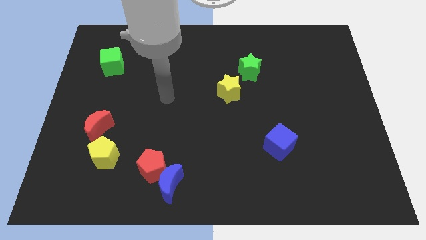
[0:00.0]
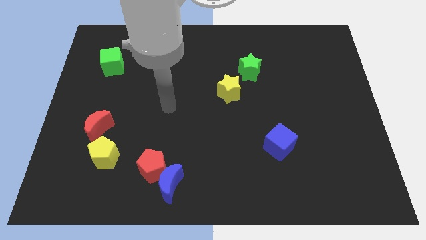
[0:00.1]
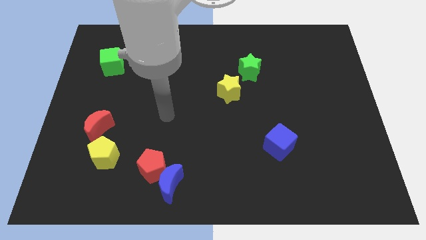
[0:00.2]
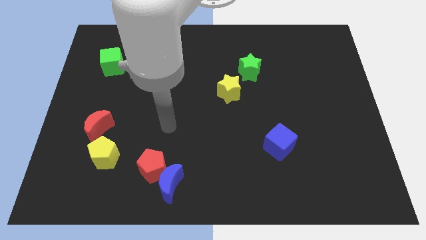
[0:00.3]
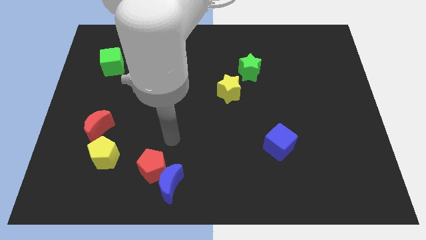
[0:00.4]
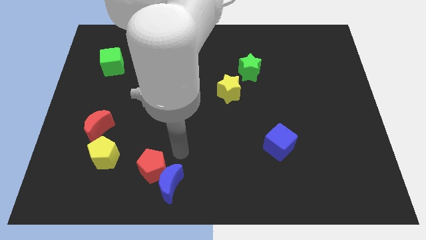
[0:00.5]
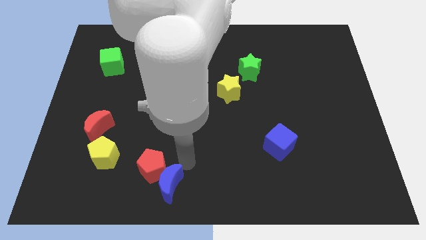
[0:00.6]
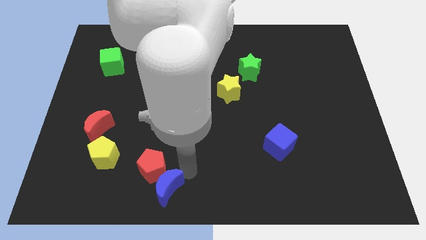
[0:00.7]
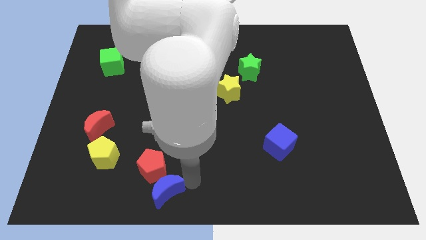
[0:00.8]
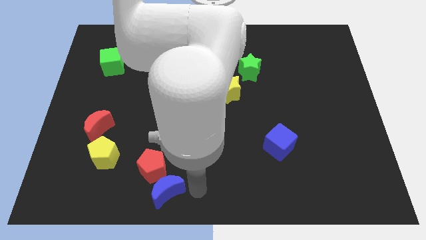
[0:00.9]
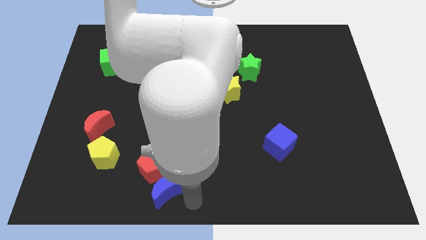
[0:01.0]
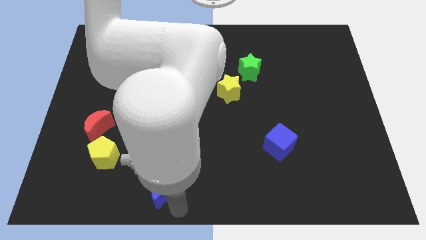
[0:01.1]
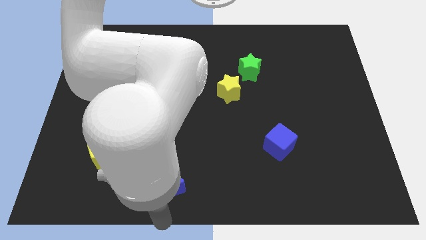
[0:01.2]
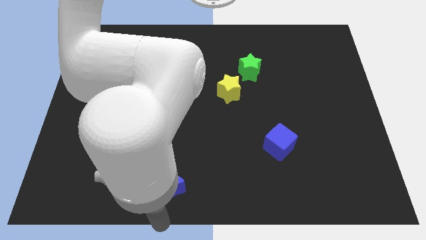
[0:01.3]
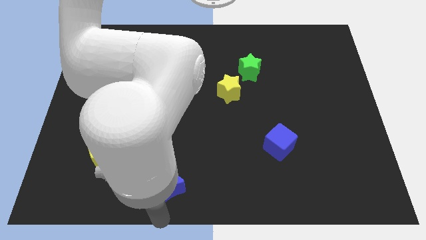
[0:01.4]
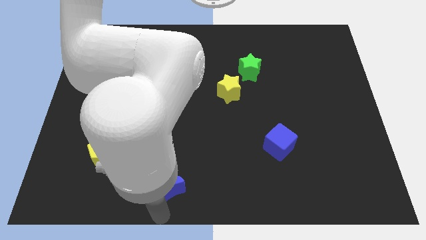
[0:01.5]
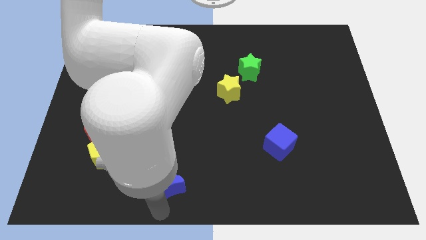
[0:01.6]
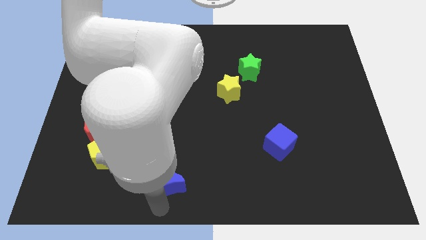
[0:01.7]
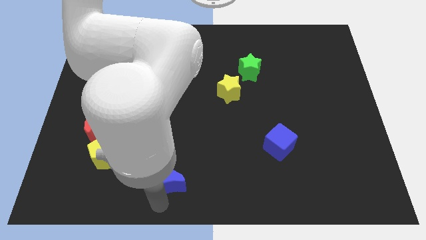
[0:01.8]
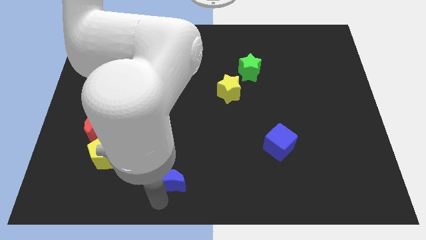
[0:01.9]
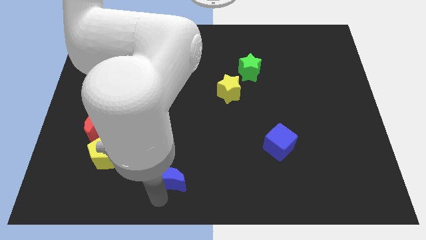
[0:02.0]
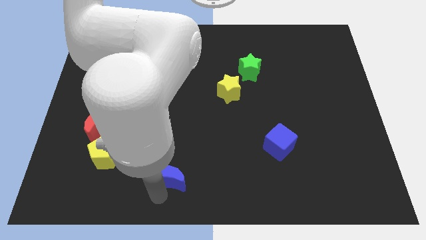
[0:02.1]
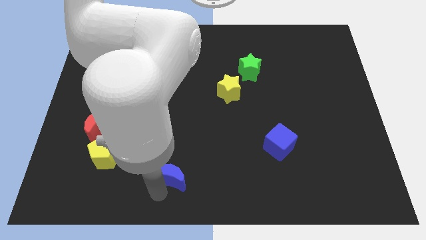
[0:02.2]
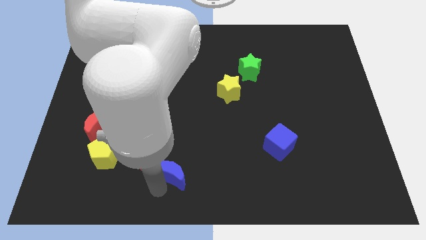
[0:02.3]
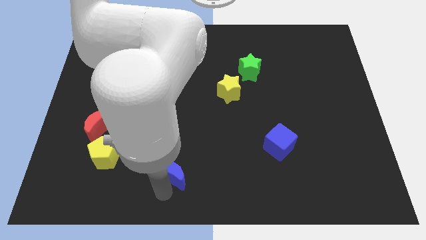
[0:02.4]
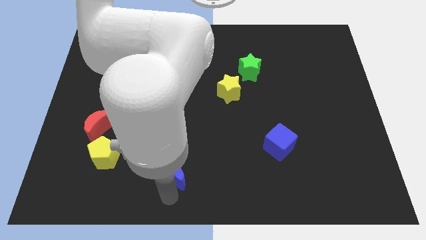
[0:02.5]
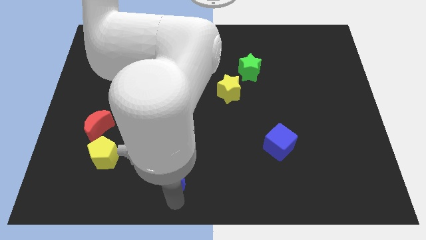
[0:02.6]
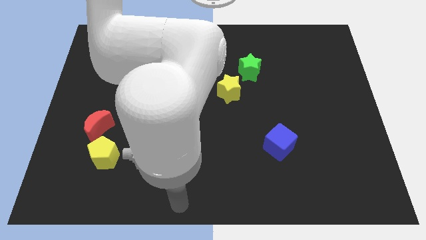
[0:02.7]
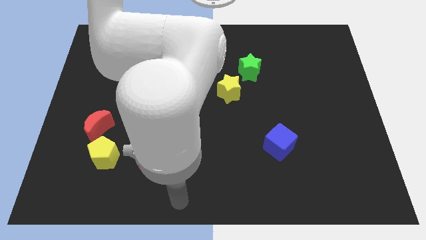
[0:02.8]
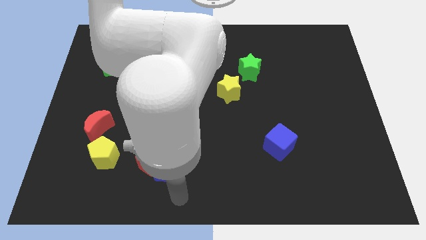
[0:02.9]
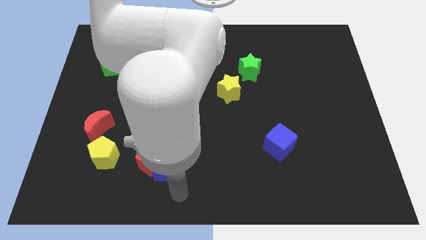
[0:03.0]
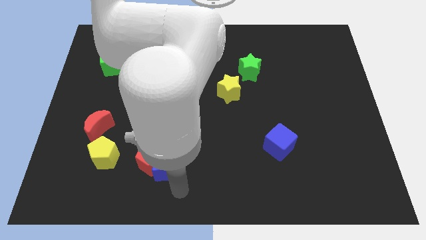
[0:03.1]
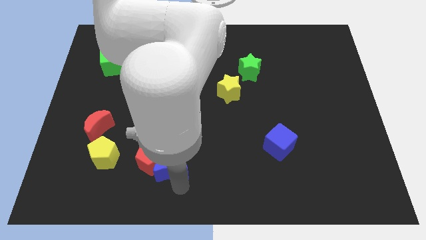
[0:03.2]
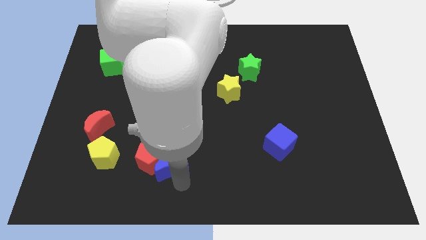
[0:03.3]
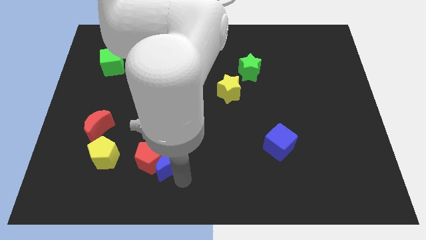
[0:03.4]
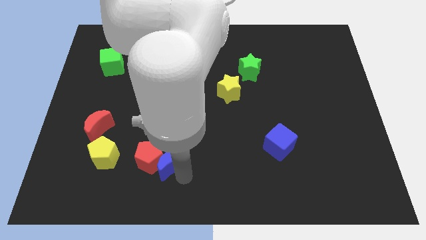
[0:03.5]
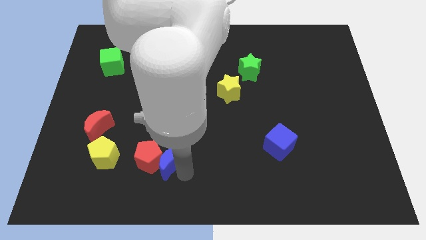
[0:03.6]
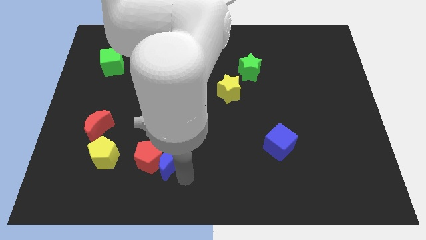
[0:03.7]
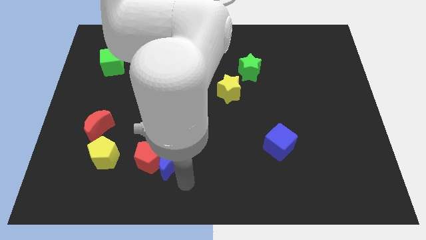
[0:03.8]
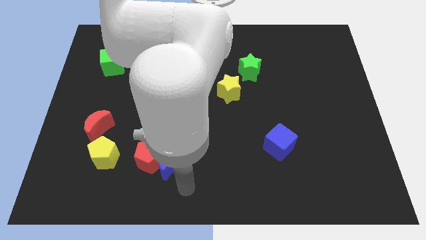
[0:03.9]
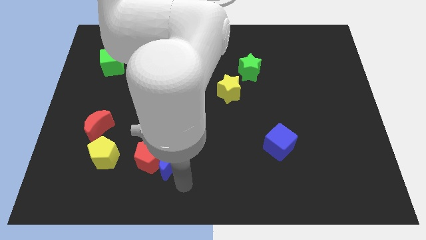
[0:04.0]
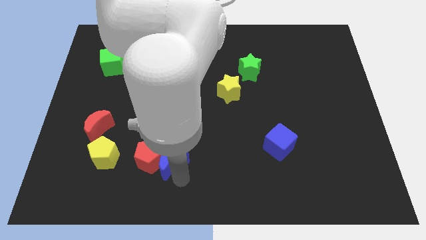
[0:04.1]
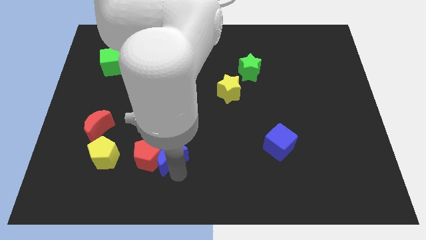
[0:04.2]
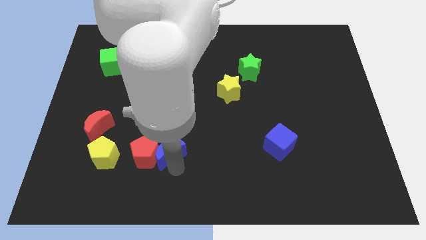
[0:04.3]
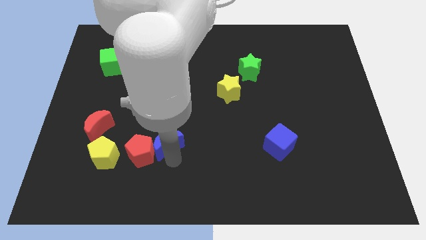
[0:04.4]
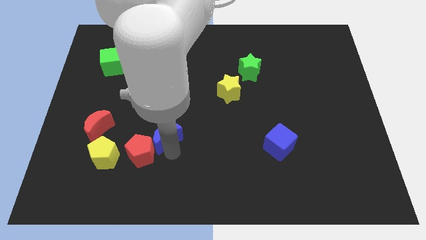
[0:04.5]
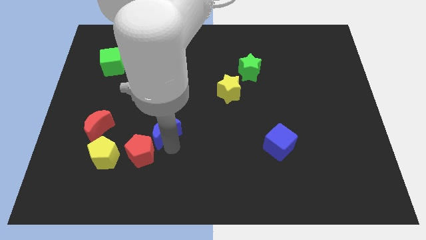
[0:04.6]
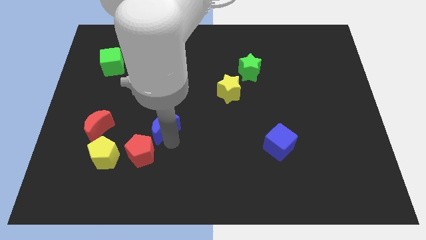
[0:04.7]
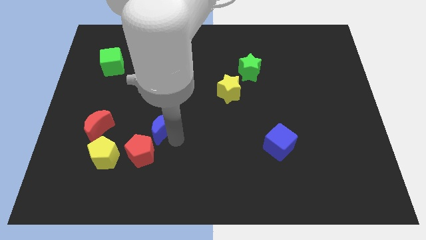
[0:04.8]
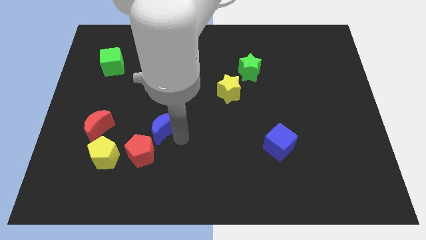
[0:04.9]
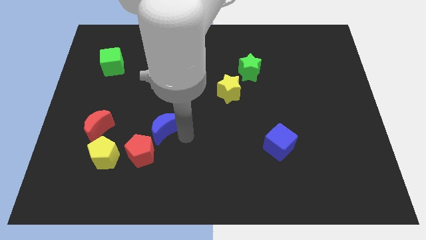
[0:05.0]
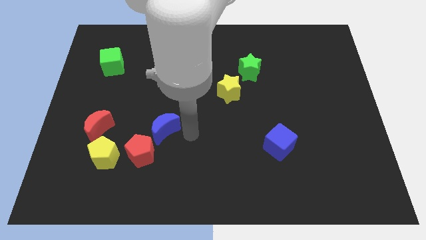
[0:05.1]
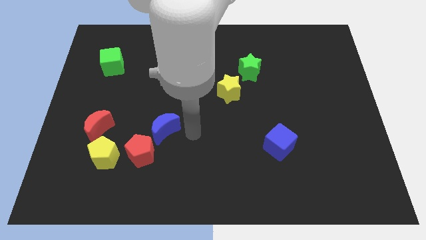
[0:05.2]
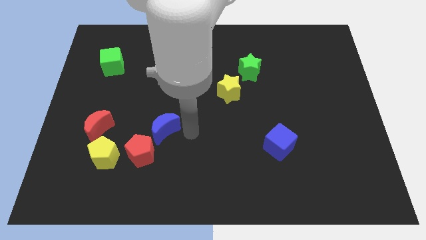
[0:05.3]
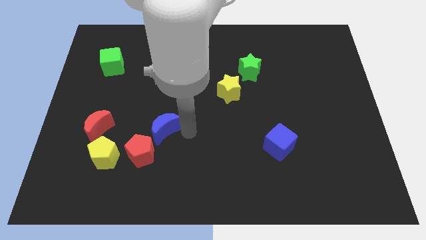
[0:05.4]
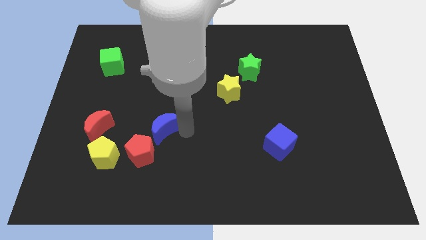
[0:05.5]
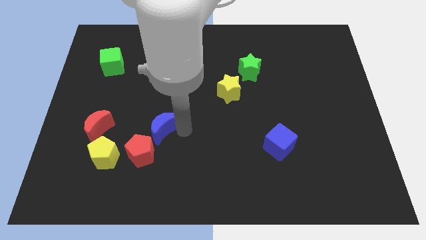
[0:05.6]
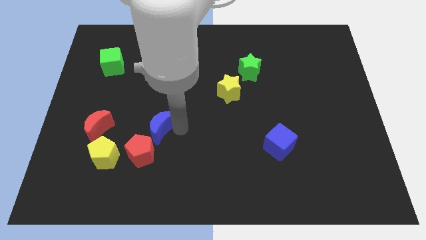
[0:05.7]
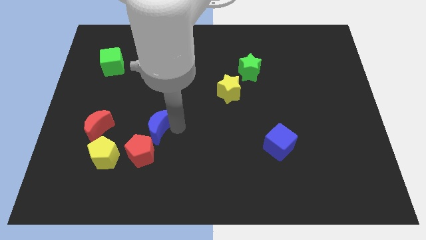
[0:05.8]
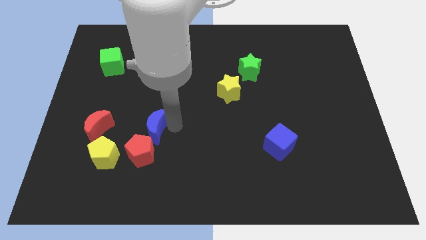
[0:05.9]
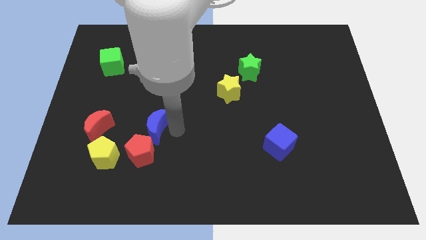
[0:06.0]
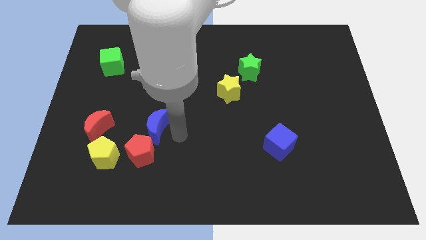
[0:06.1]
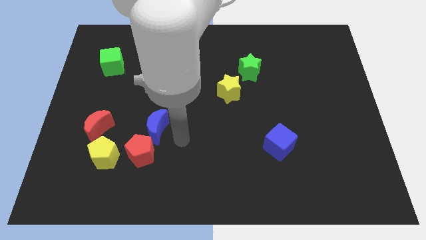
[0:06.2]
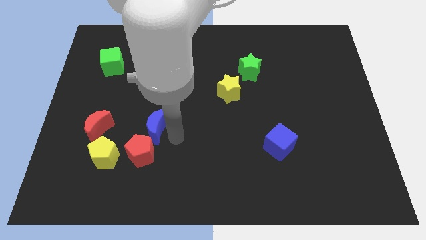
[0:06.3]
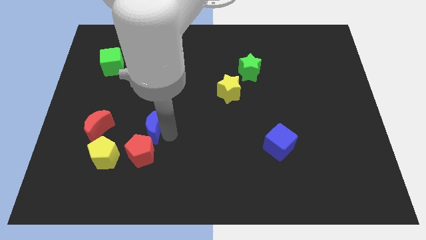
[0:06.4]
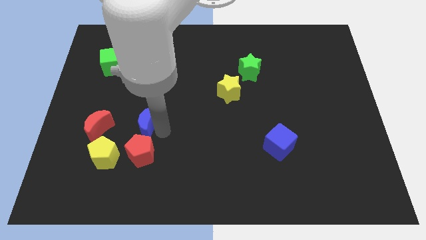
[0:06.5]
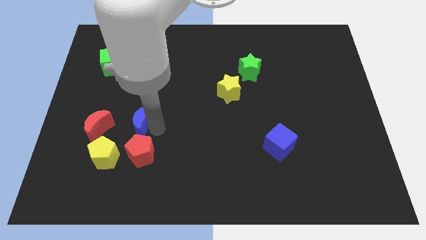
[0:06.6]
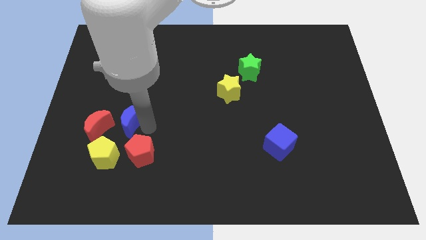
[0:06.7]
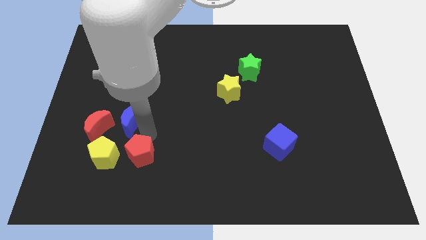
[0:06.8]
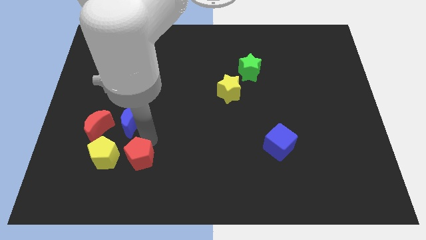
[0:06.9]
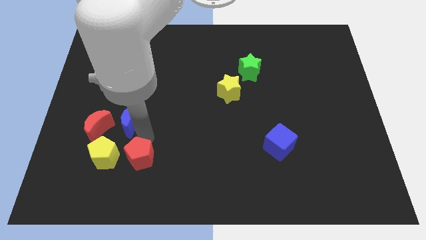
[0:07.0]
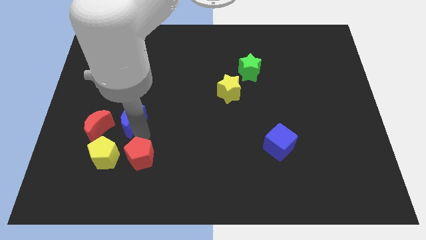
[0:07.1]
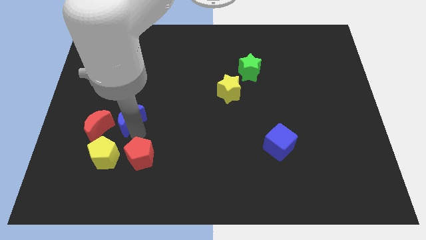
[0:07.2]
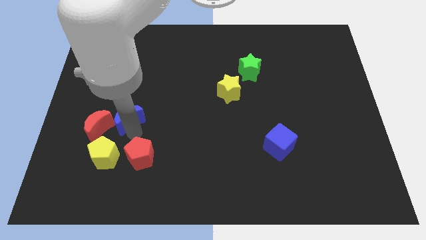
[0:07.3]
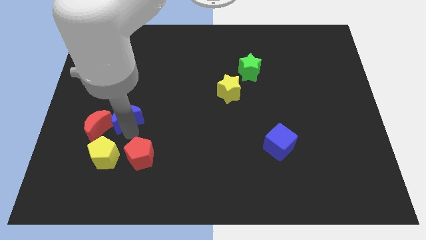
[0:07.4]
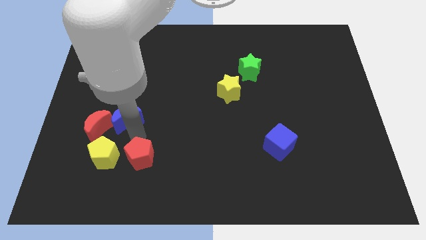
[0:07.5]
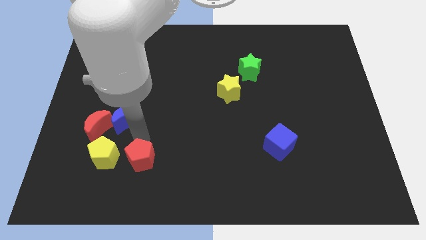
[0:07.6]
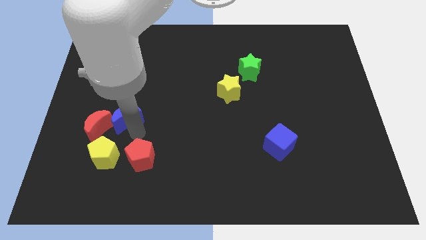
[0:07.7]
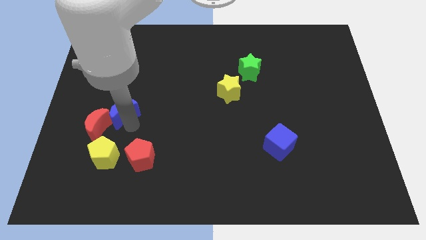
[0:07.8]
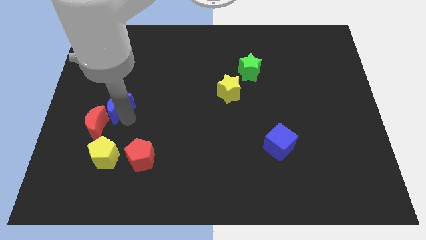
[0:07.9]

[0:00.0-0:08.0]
move the blue moon to the top of the red moon
